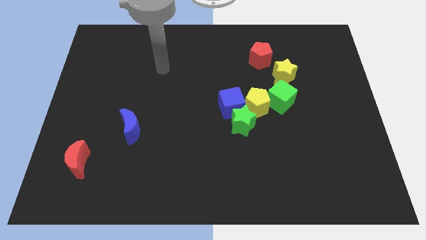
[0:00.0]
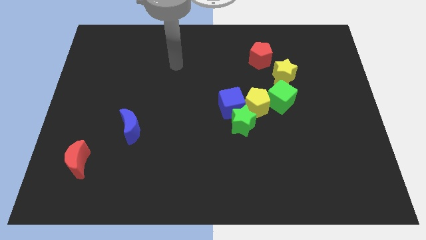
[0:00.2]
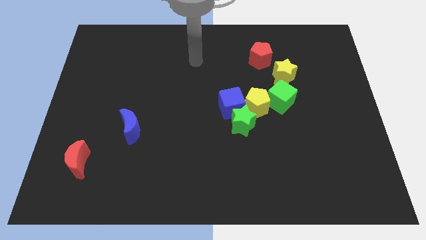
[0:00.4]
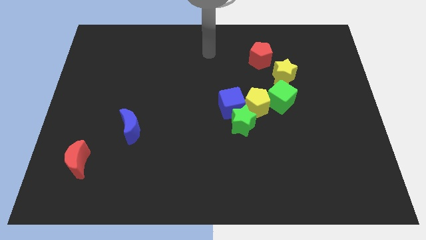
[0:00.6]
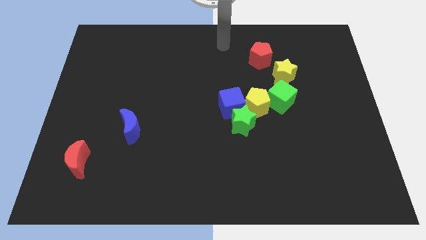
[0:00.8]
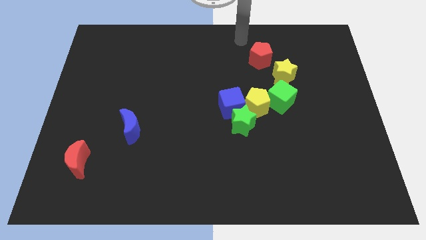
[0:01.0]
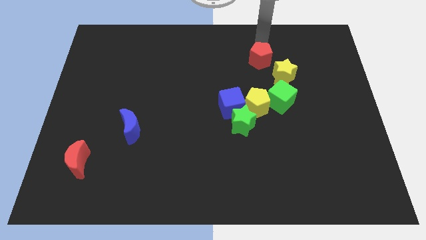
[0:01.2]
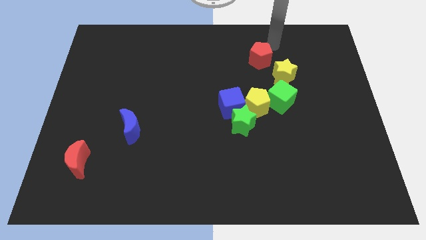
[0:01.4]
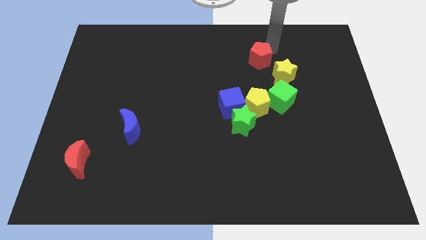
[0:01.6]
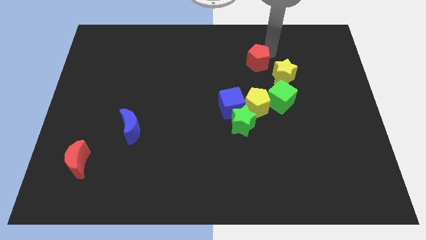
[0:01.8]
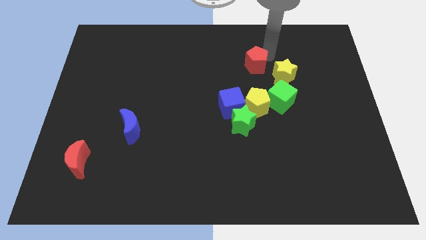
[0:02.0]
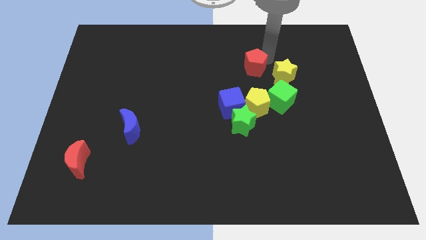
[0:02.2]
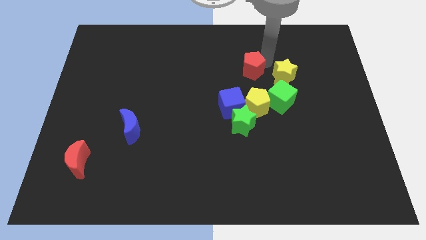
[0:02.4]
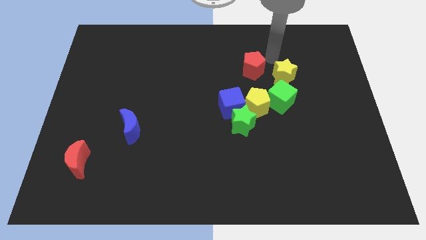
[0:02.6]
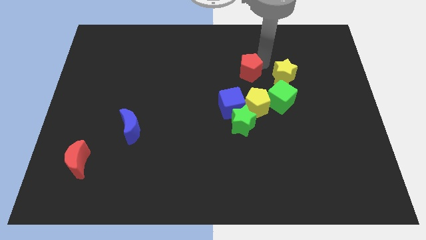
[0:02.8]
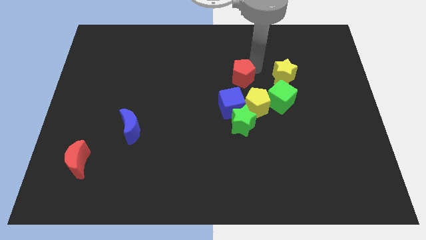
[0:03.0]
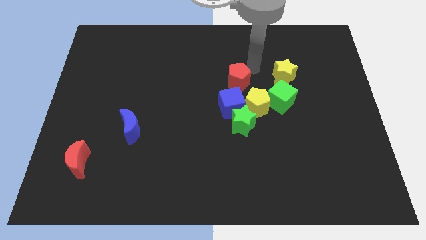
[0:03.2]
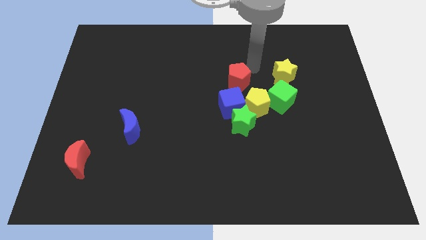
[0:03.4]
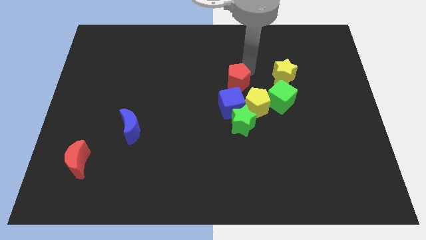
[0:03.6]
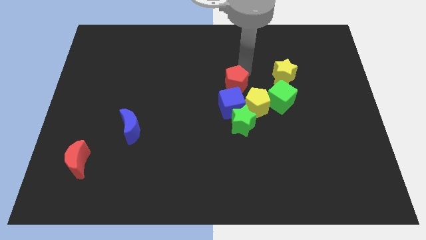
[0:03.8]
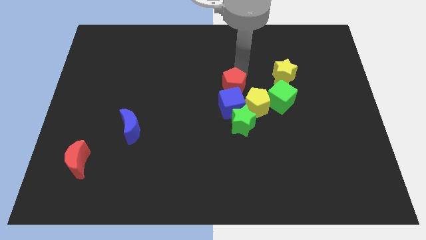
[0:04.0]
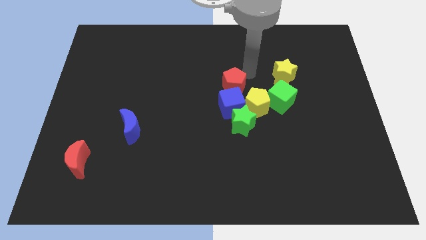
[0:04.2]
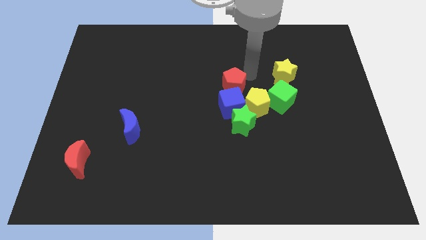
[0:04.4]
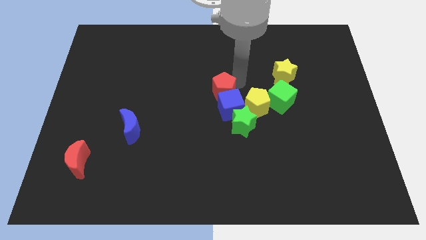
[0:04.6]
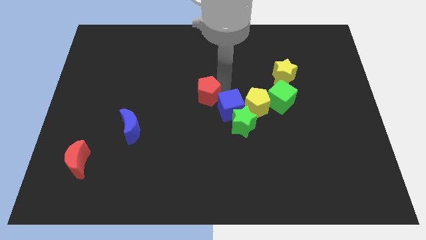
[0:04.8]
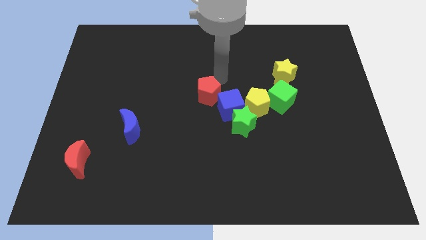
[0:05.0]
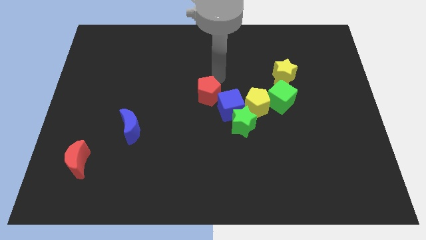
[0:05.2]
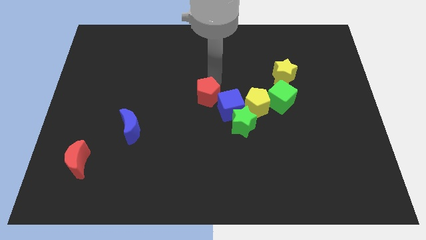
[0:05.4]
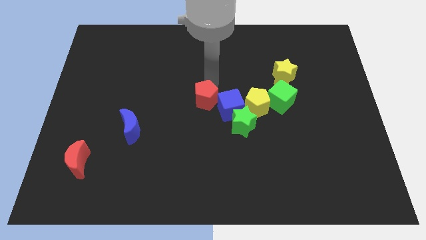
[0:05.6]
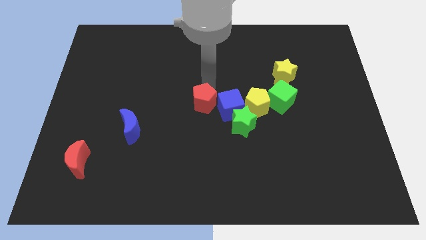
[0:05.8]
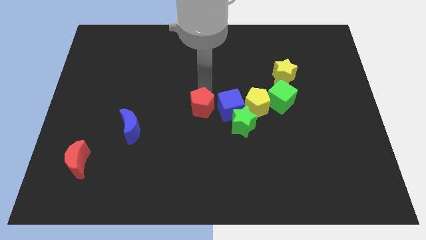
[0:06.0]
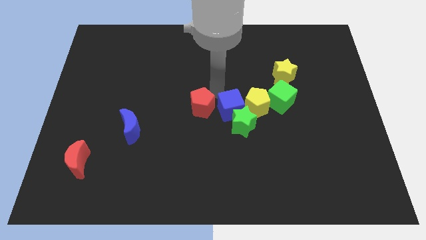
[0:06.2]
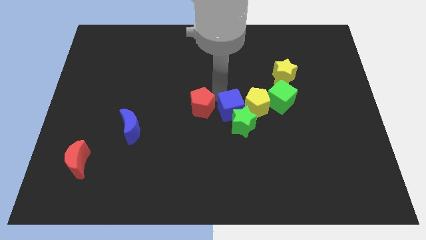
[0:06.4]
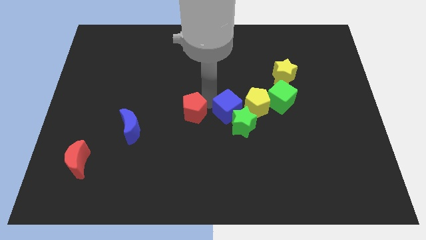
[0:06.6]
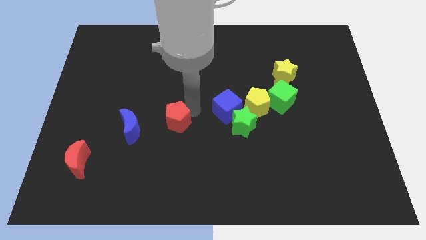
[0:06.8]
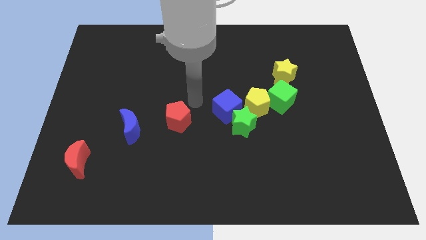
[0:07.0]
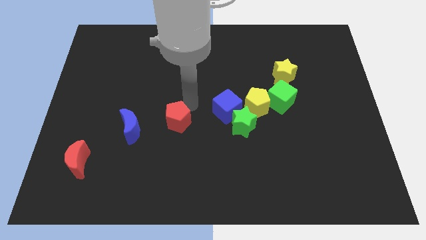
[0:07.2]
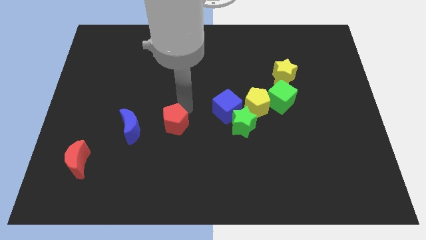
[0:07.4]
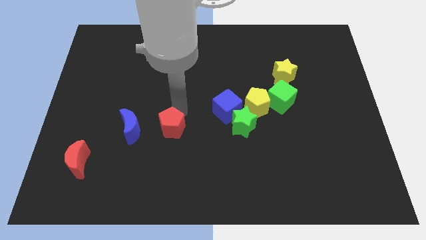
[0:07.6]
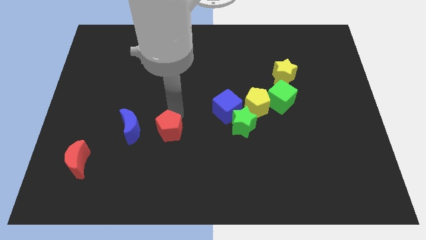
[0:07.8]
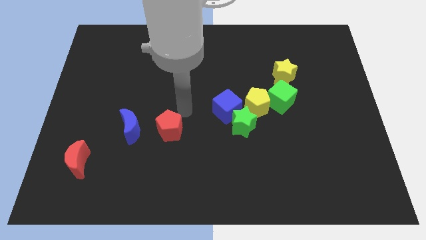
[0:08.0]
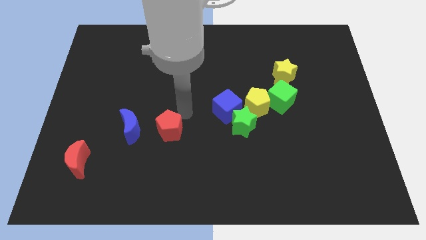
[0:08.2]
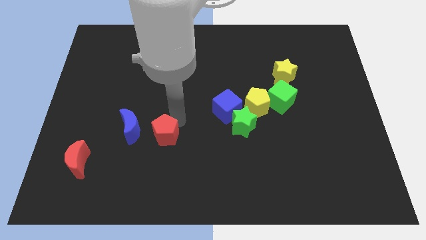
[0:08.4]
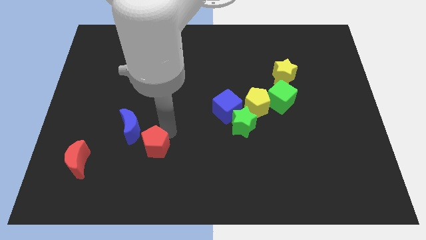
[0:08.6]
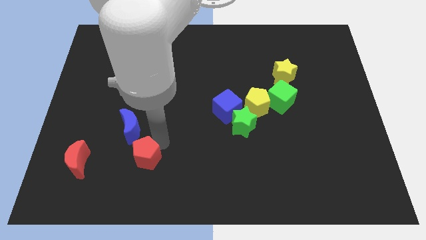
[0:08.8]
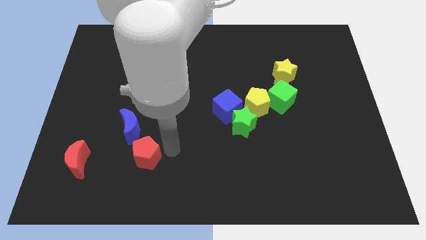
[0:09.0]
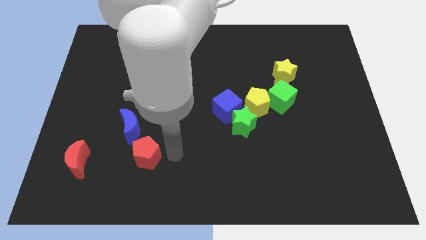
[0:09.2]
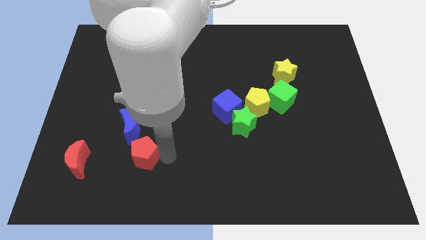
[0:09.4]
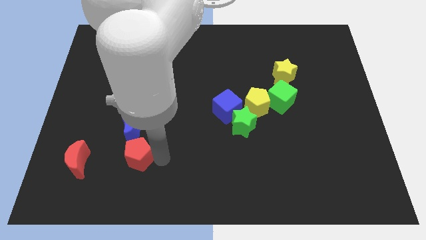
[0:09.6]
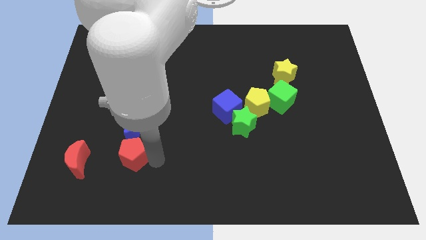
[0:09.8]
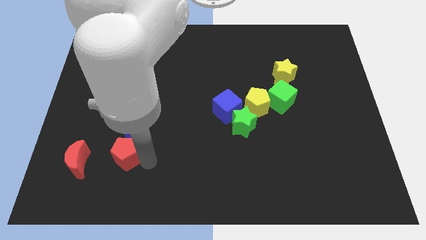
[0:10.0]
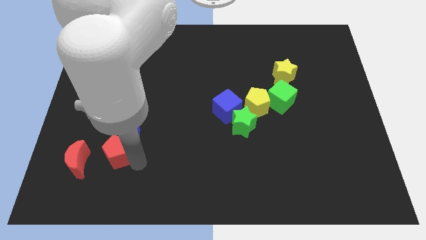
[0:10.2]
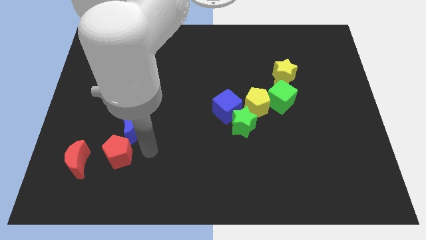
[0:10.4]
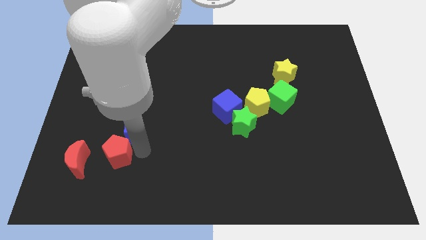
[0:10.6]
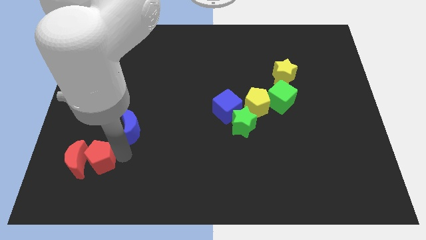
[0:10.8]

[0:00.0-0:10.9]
slide the red pentagon towards the red moon
